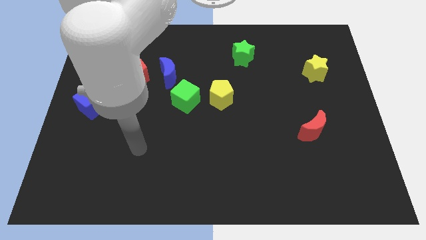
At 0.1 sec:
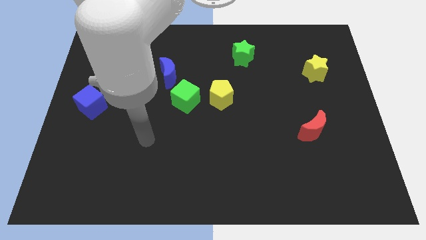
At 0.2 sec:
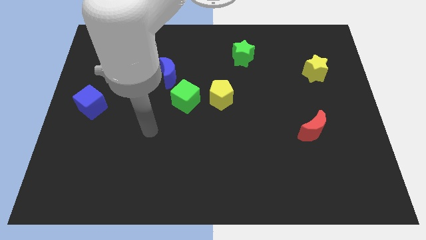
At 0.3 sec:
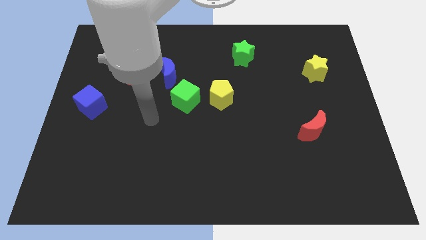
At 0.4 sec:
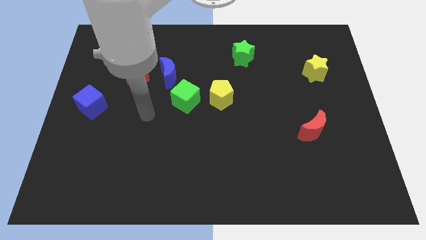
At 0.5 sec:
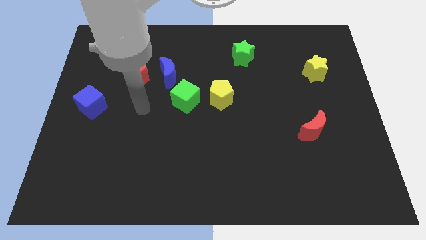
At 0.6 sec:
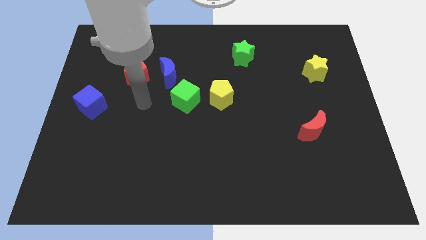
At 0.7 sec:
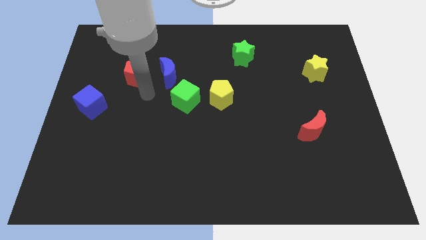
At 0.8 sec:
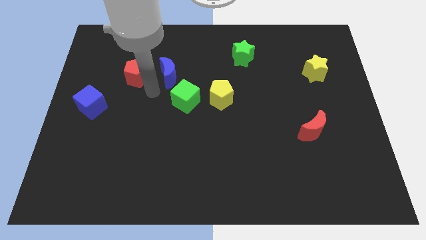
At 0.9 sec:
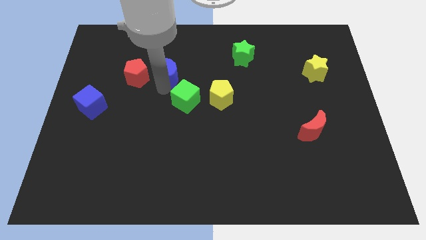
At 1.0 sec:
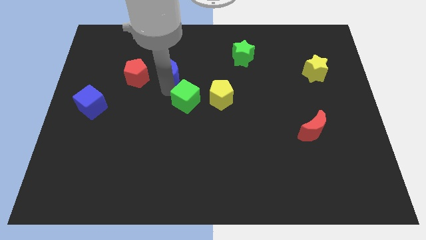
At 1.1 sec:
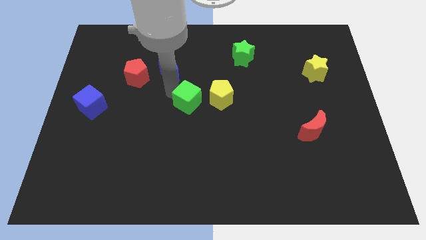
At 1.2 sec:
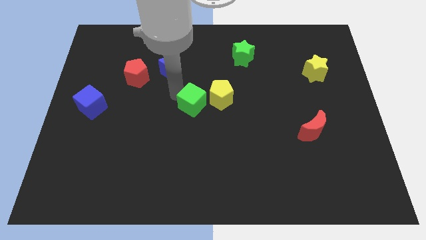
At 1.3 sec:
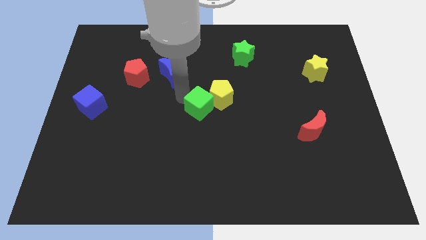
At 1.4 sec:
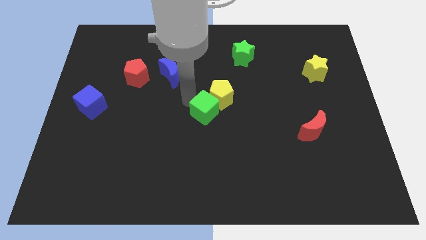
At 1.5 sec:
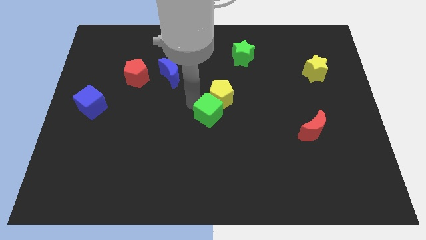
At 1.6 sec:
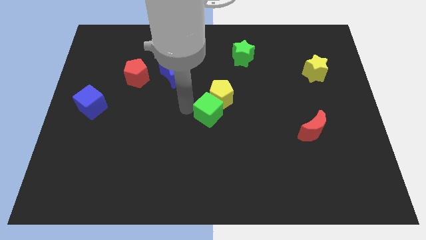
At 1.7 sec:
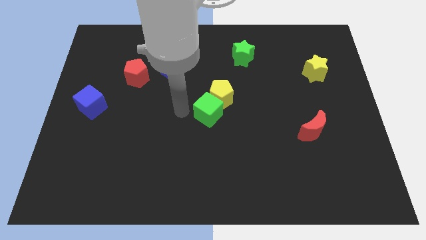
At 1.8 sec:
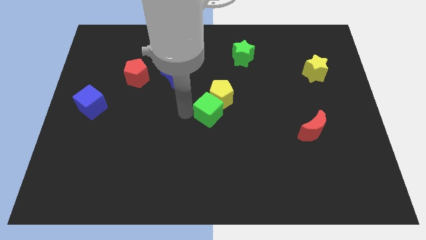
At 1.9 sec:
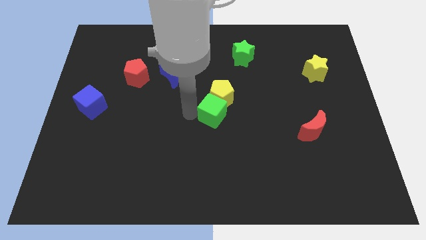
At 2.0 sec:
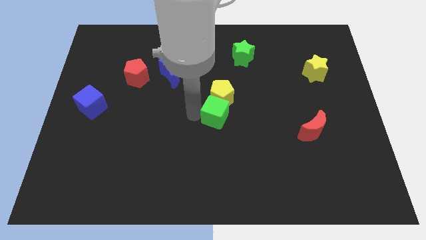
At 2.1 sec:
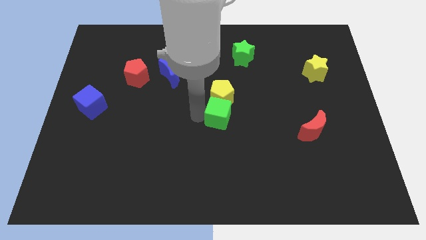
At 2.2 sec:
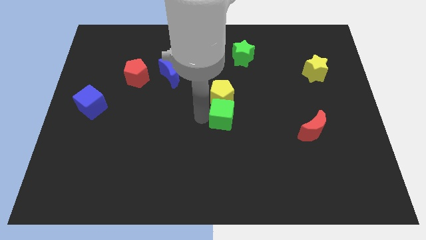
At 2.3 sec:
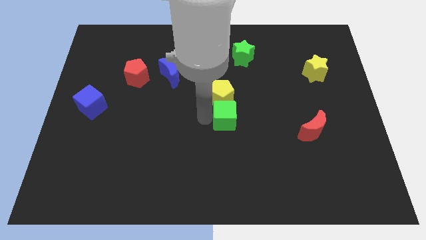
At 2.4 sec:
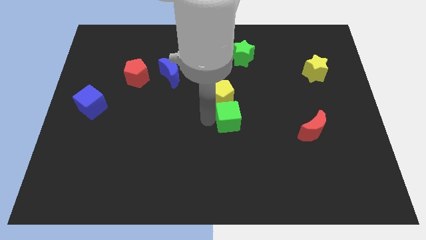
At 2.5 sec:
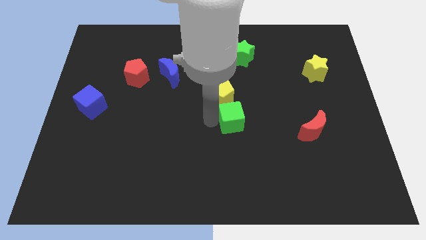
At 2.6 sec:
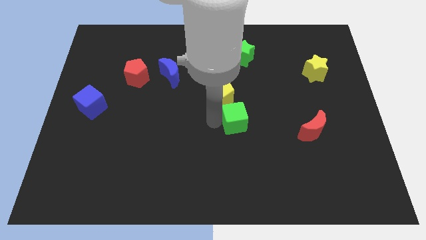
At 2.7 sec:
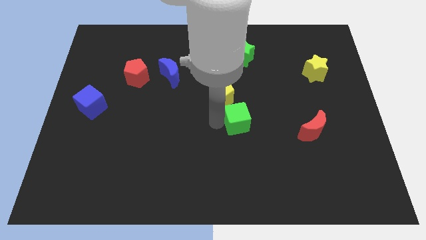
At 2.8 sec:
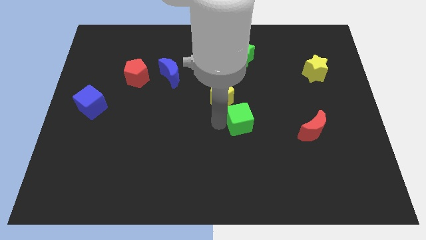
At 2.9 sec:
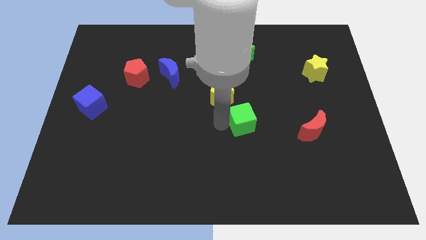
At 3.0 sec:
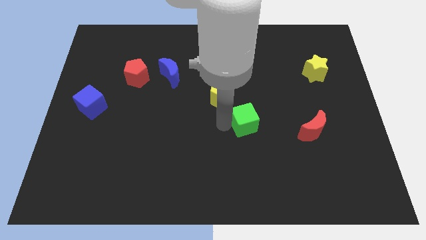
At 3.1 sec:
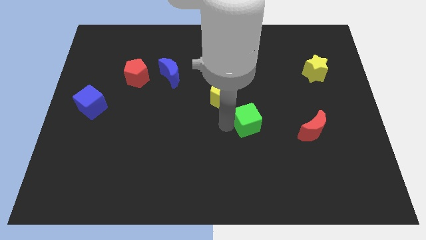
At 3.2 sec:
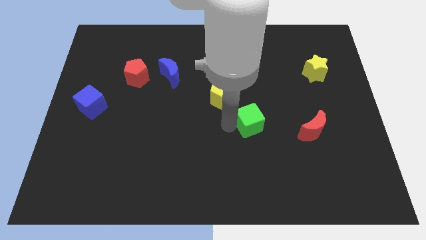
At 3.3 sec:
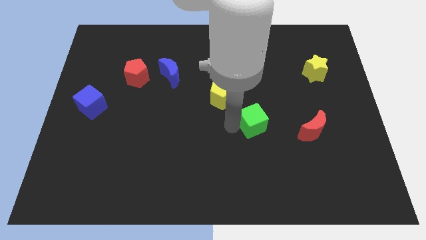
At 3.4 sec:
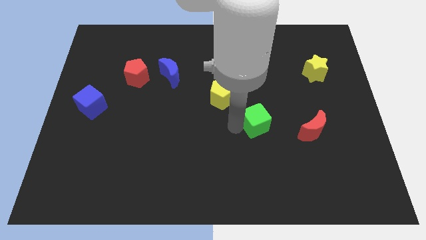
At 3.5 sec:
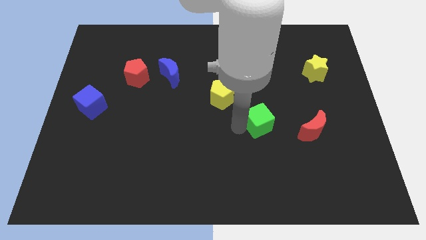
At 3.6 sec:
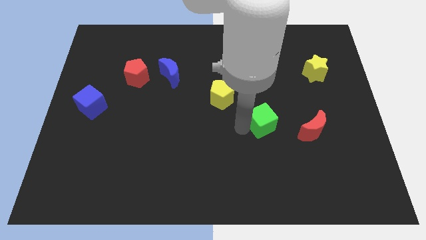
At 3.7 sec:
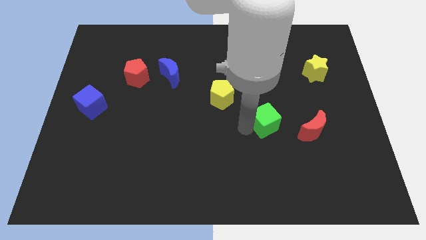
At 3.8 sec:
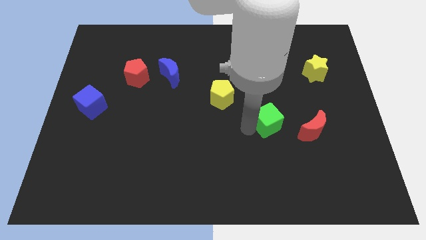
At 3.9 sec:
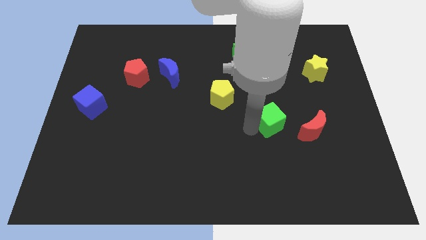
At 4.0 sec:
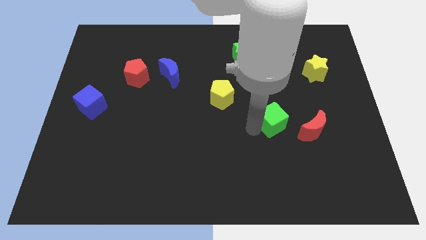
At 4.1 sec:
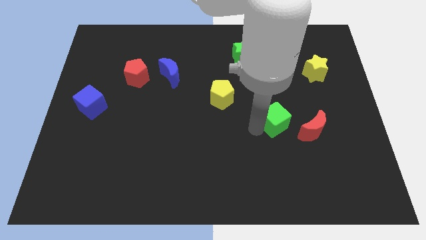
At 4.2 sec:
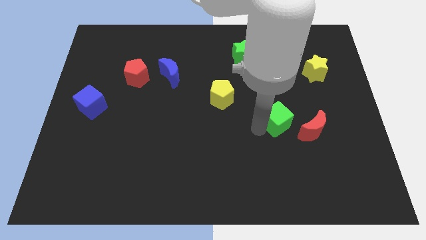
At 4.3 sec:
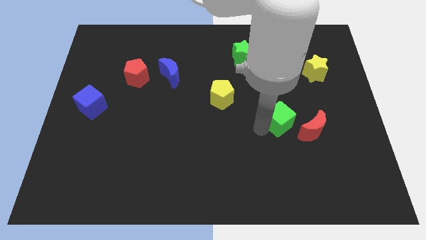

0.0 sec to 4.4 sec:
slide the green cube to the right

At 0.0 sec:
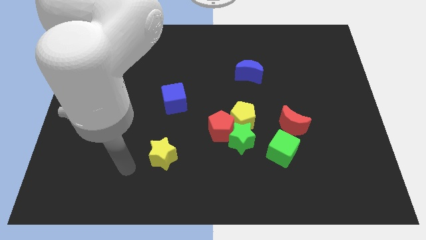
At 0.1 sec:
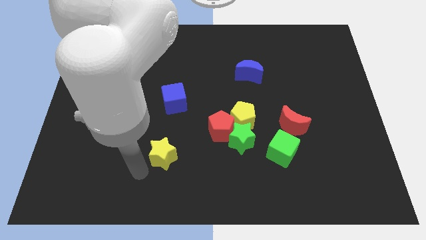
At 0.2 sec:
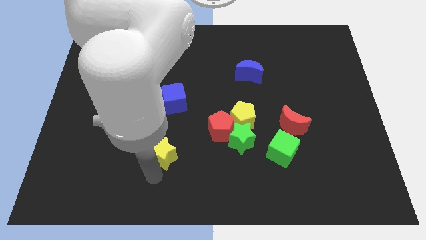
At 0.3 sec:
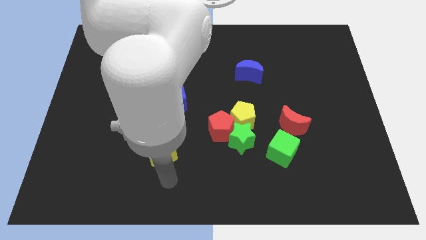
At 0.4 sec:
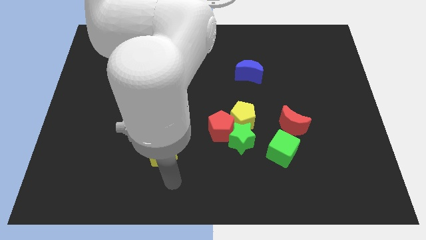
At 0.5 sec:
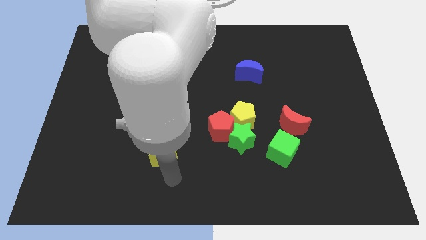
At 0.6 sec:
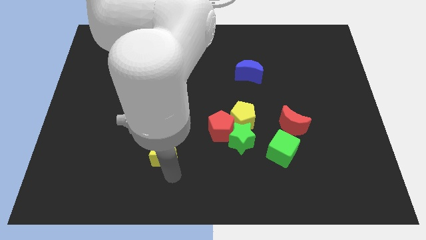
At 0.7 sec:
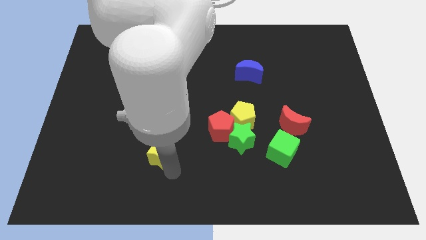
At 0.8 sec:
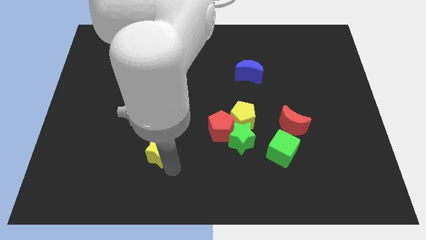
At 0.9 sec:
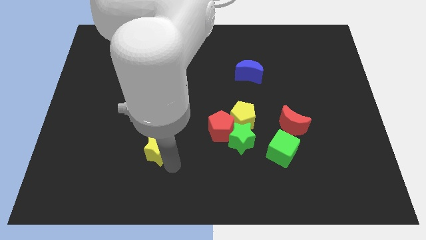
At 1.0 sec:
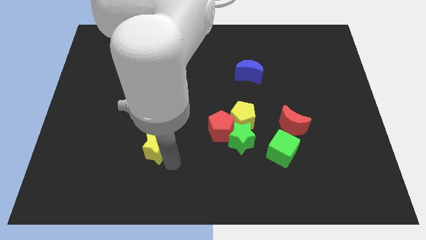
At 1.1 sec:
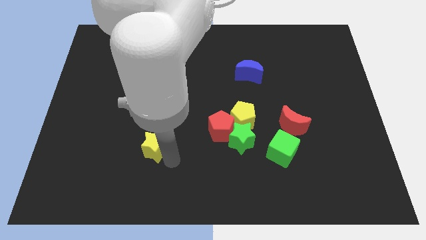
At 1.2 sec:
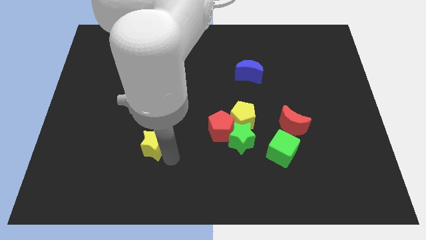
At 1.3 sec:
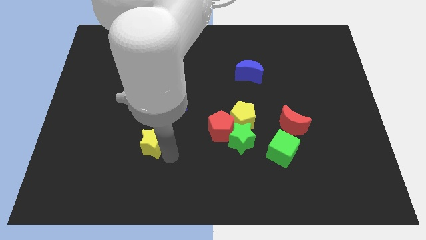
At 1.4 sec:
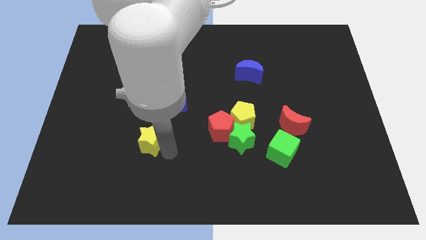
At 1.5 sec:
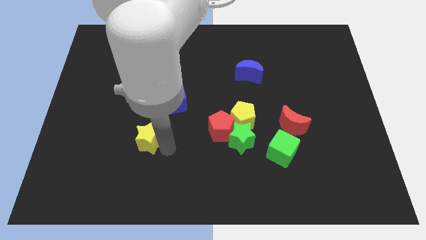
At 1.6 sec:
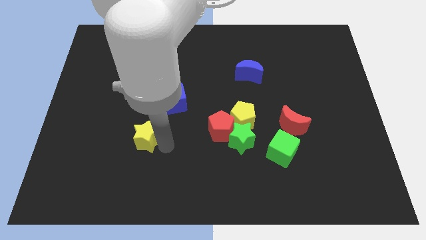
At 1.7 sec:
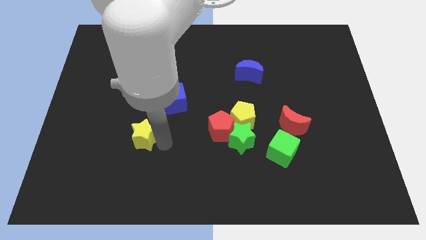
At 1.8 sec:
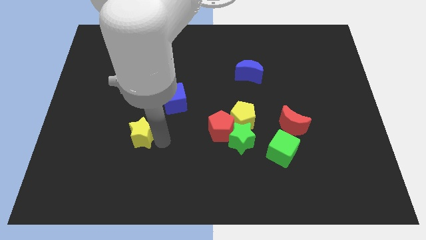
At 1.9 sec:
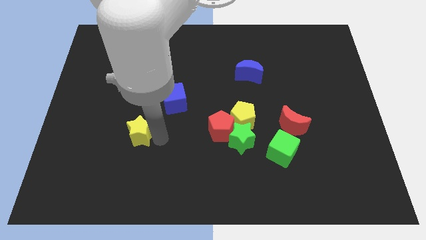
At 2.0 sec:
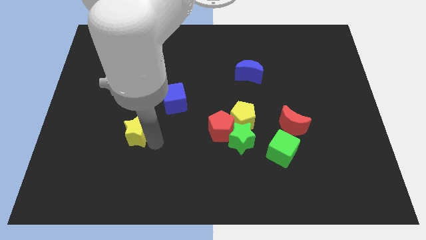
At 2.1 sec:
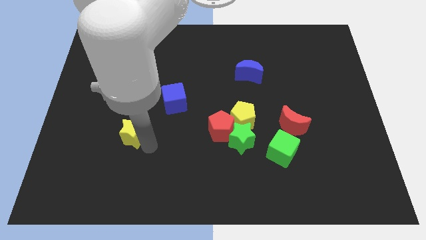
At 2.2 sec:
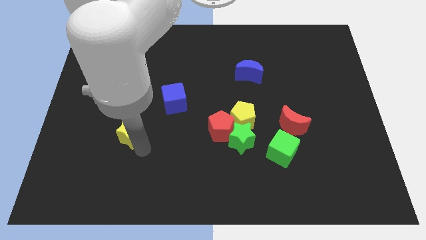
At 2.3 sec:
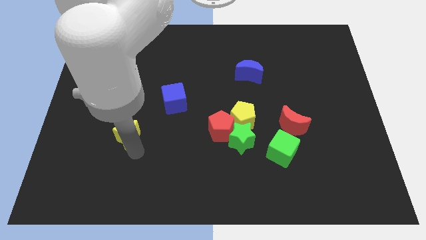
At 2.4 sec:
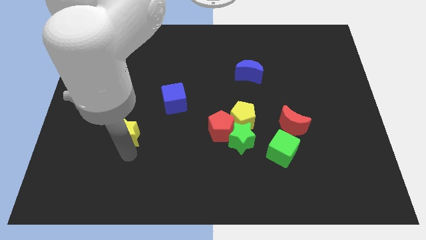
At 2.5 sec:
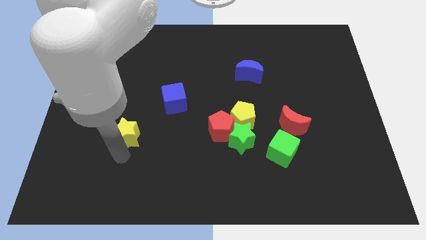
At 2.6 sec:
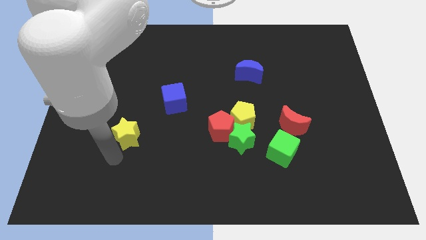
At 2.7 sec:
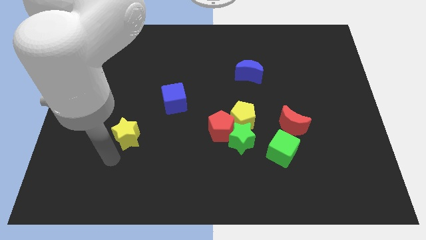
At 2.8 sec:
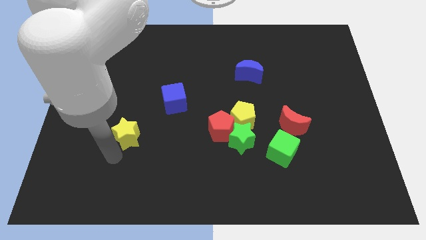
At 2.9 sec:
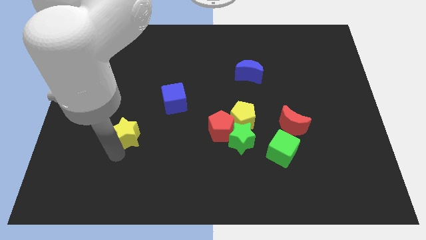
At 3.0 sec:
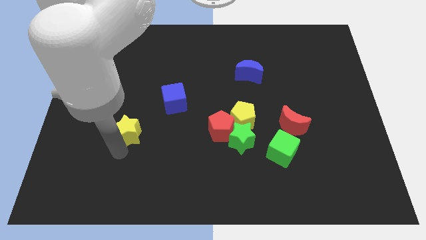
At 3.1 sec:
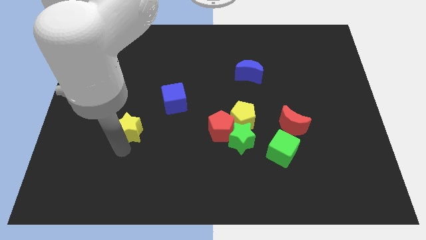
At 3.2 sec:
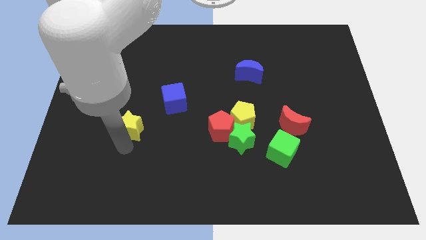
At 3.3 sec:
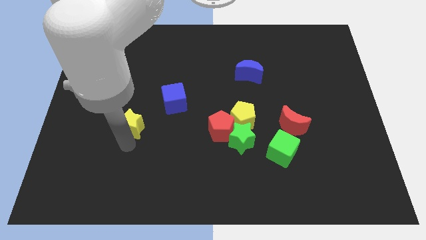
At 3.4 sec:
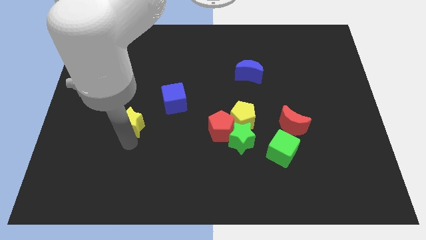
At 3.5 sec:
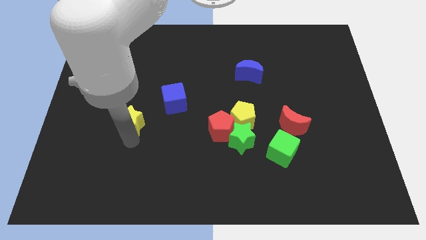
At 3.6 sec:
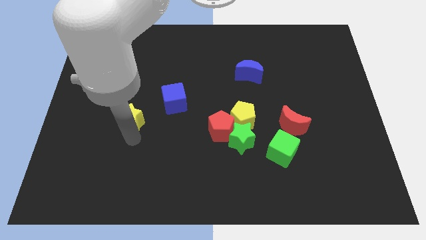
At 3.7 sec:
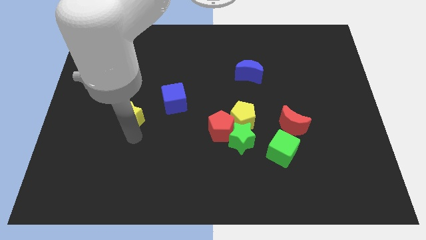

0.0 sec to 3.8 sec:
slide the yellow star up somewhat
